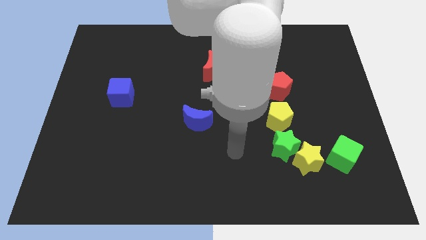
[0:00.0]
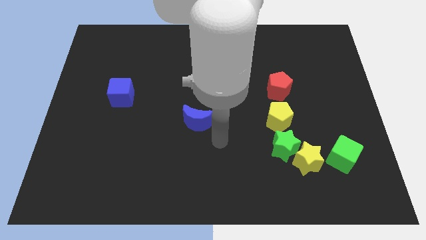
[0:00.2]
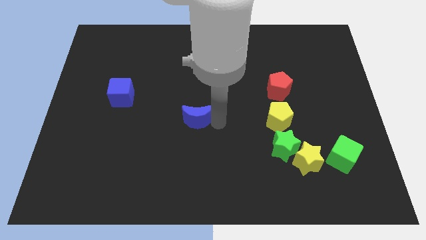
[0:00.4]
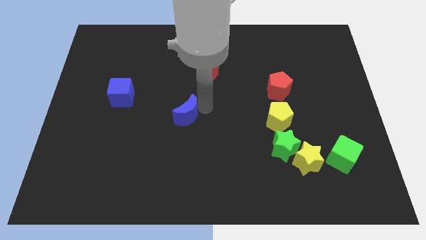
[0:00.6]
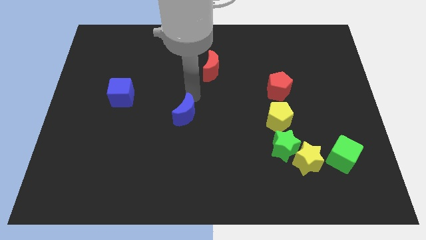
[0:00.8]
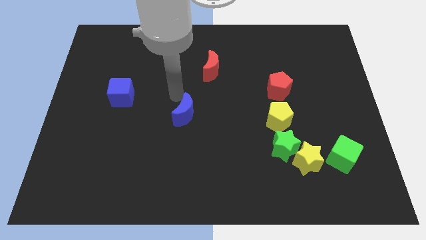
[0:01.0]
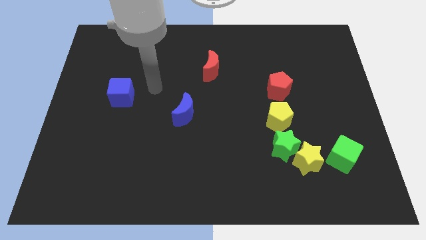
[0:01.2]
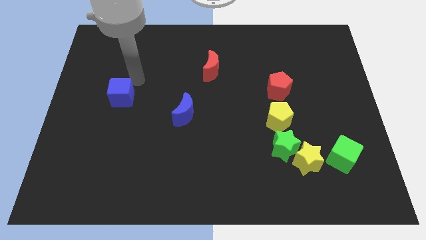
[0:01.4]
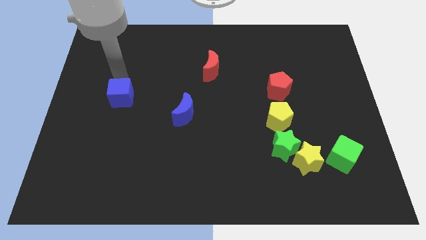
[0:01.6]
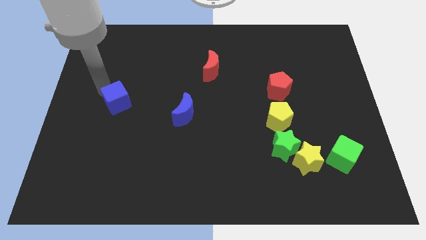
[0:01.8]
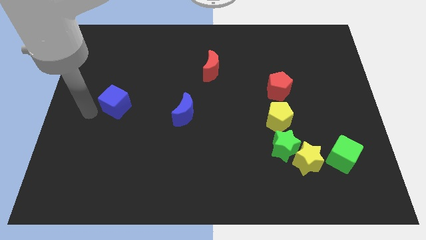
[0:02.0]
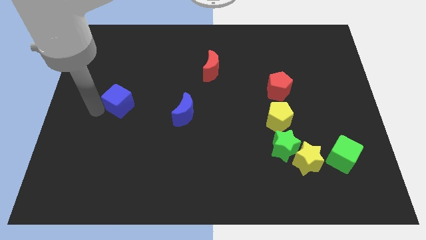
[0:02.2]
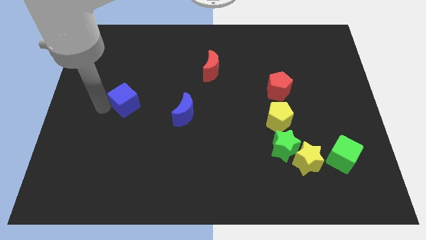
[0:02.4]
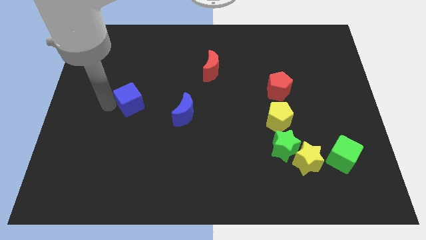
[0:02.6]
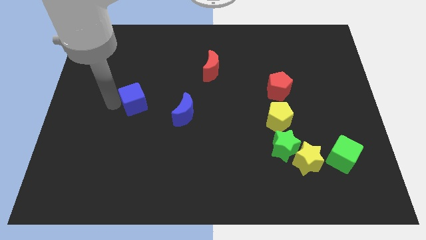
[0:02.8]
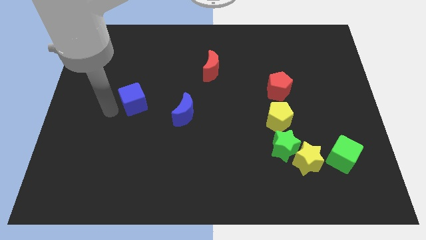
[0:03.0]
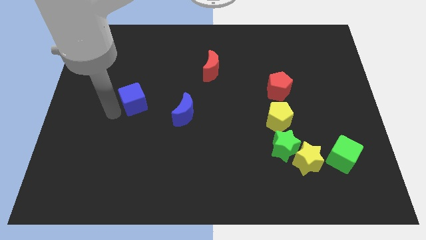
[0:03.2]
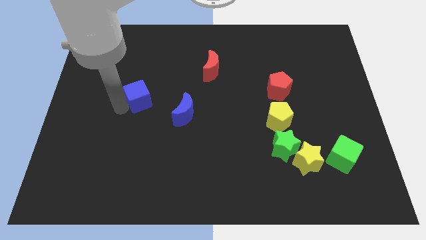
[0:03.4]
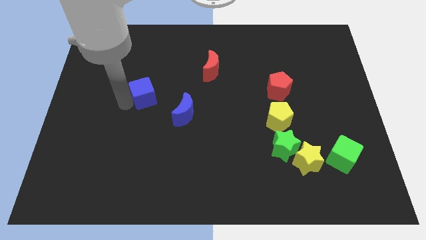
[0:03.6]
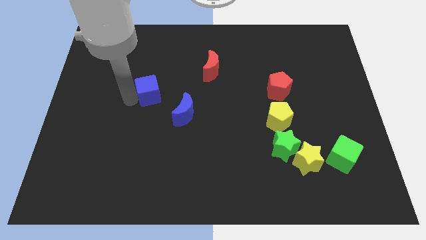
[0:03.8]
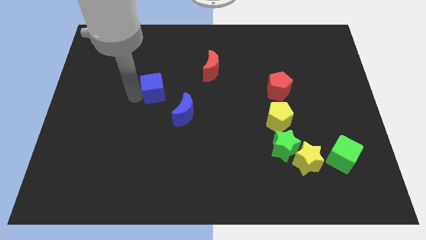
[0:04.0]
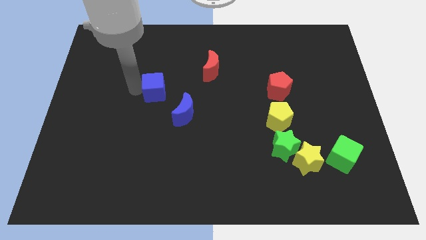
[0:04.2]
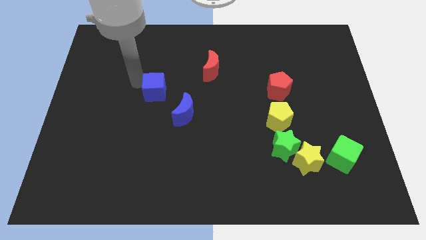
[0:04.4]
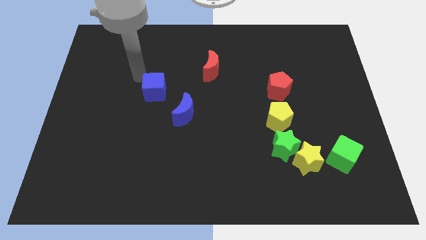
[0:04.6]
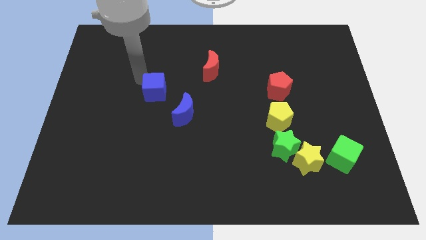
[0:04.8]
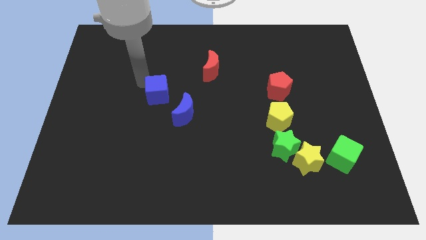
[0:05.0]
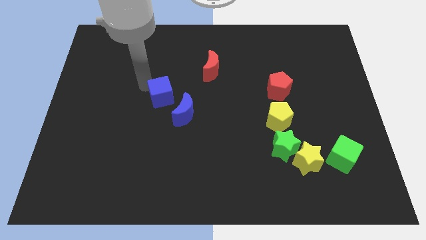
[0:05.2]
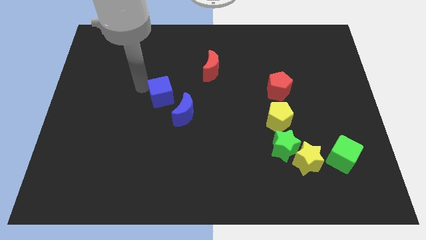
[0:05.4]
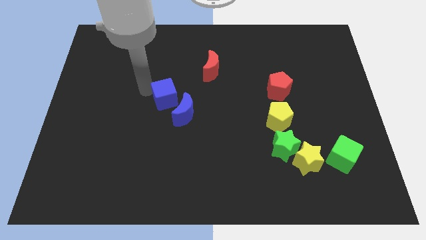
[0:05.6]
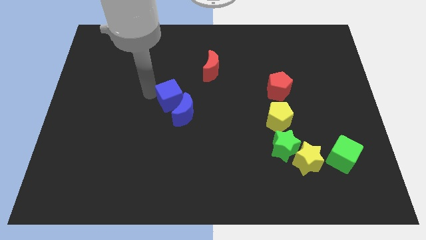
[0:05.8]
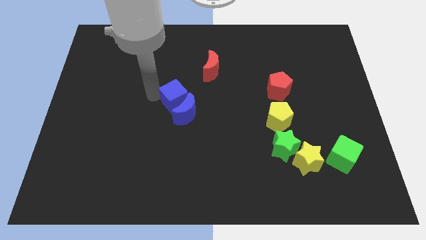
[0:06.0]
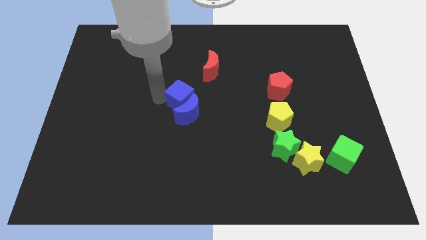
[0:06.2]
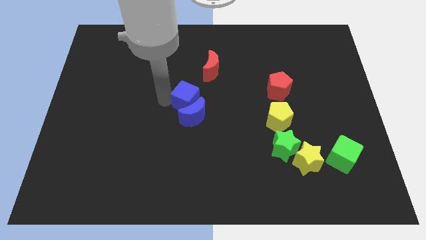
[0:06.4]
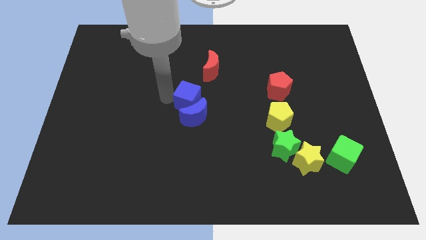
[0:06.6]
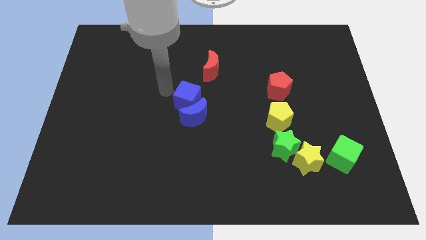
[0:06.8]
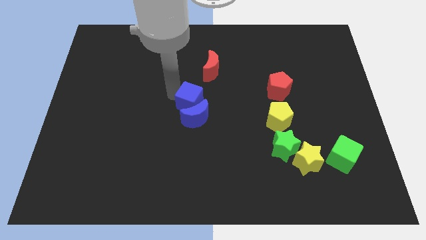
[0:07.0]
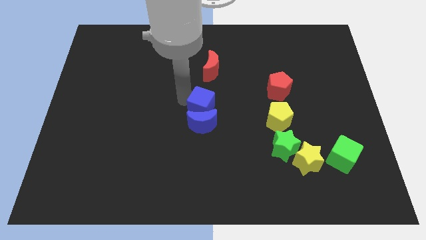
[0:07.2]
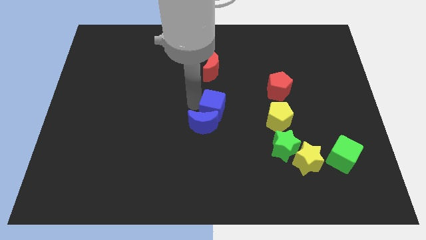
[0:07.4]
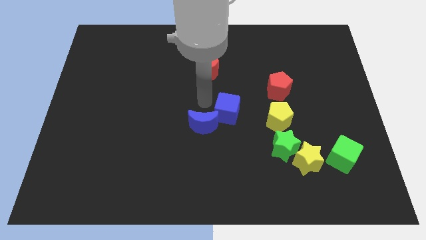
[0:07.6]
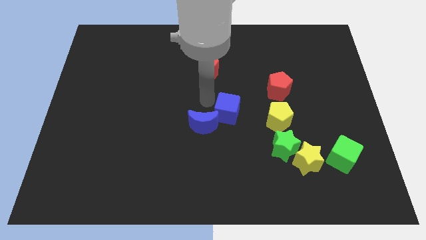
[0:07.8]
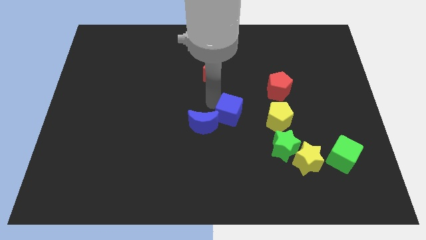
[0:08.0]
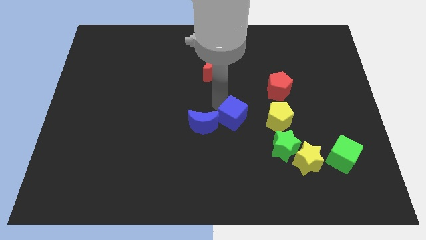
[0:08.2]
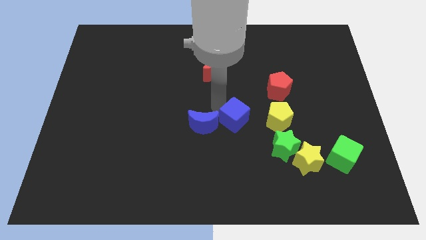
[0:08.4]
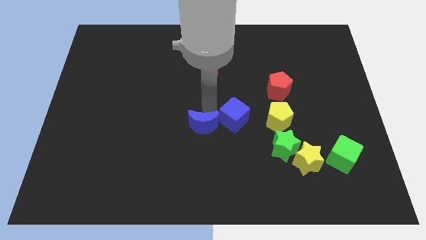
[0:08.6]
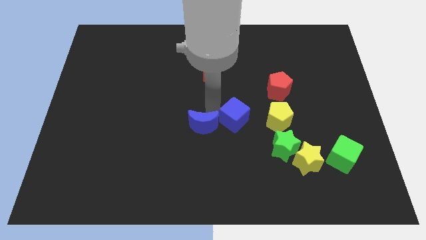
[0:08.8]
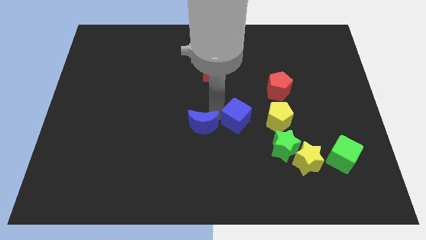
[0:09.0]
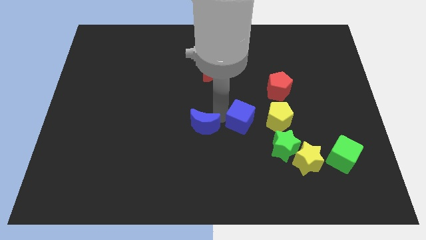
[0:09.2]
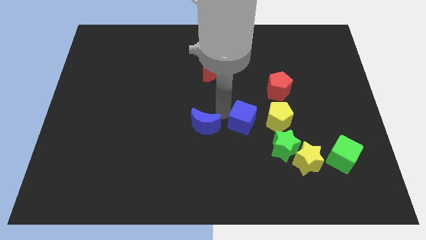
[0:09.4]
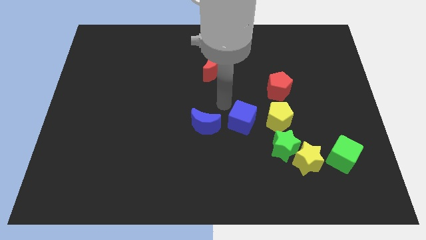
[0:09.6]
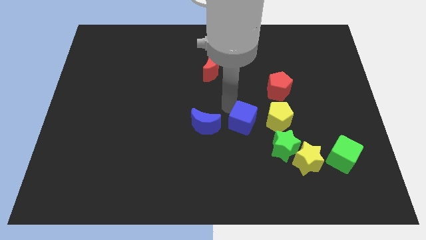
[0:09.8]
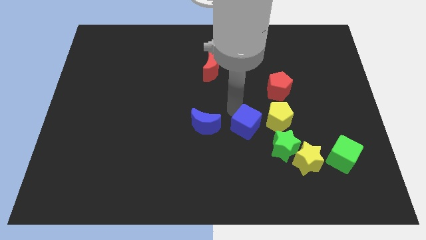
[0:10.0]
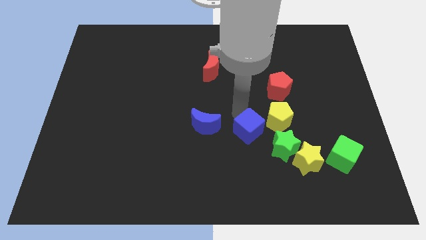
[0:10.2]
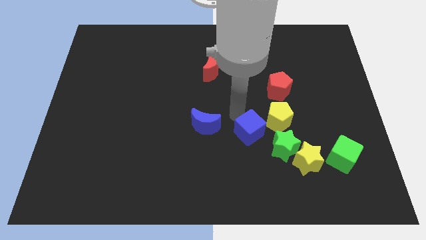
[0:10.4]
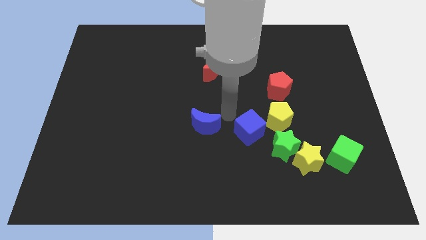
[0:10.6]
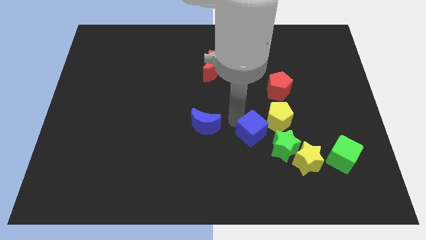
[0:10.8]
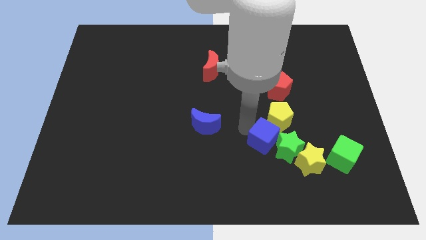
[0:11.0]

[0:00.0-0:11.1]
move the blue cube towards the green star

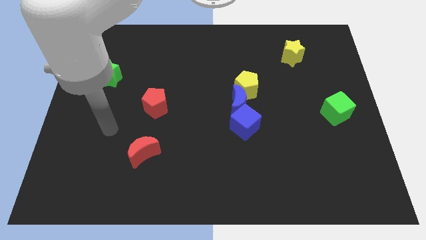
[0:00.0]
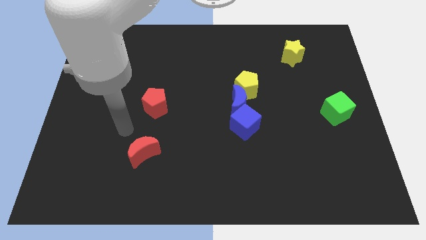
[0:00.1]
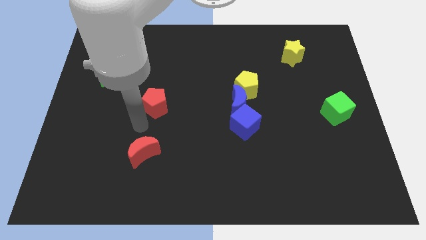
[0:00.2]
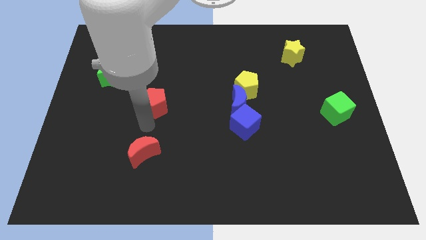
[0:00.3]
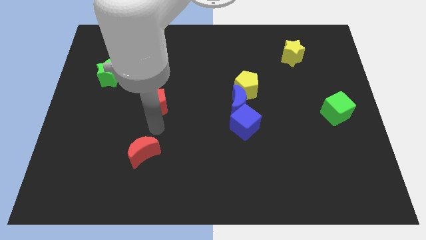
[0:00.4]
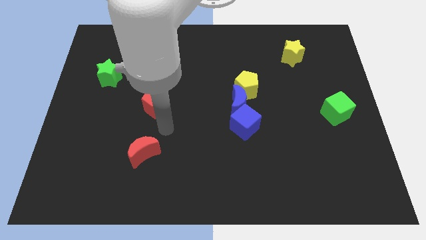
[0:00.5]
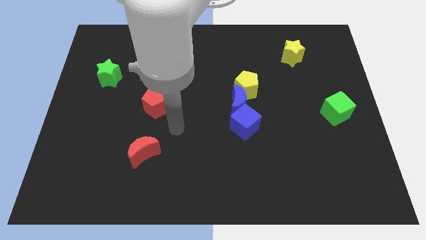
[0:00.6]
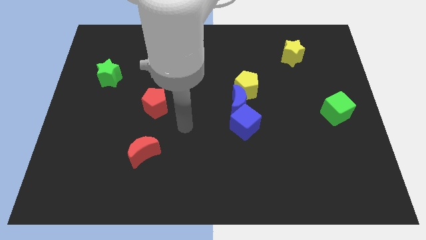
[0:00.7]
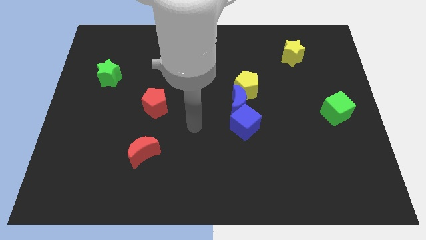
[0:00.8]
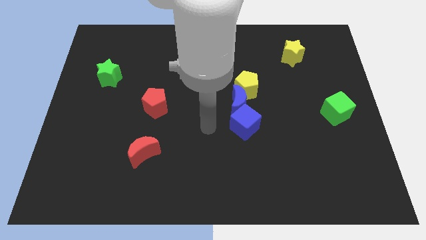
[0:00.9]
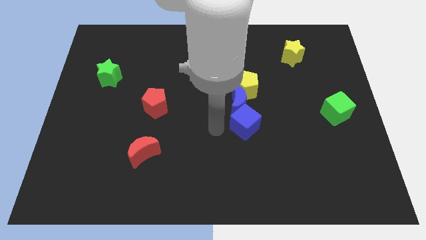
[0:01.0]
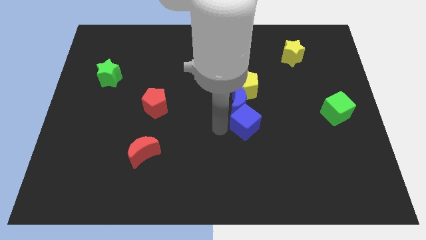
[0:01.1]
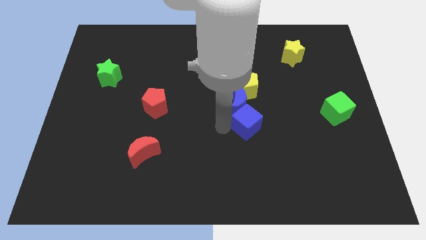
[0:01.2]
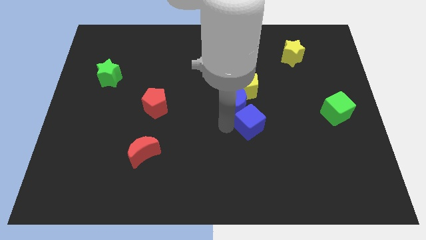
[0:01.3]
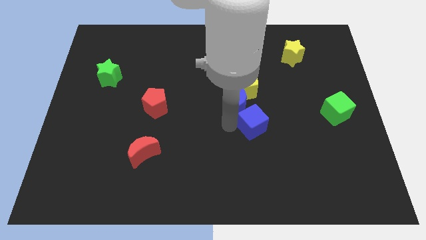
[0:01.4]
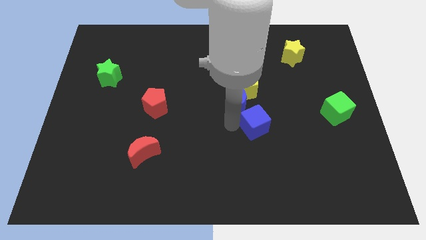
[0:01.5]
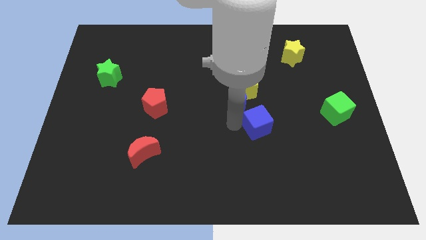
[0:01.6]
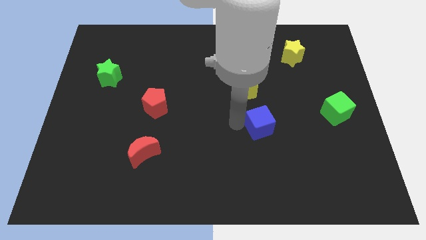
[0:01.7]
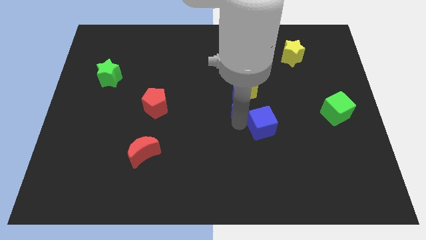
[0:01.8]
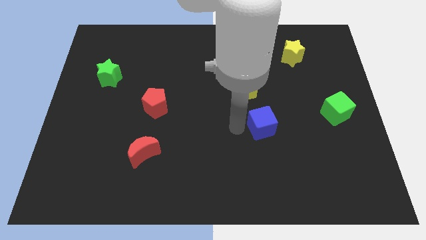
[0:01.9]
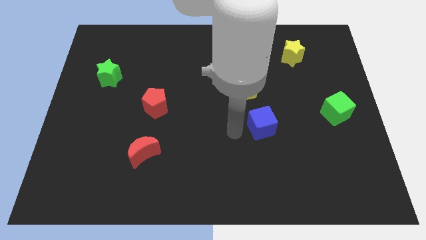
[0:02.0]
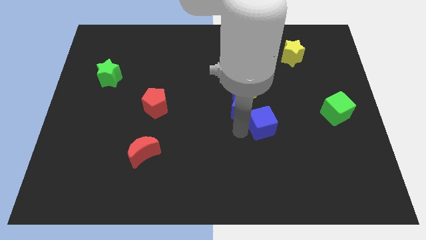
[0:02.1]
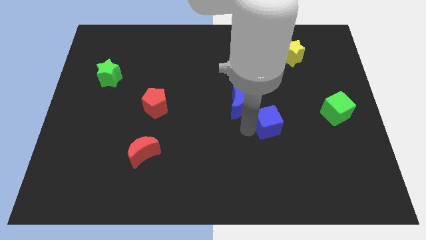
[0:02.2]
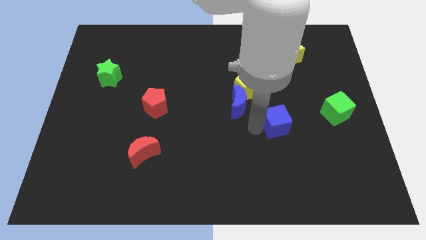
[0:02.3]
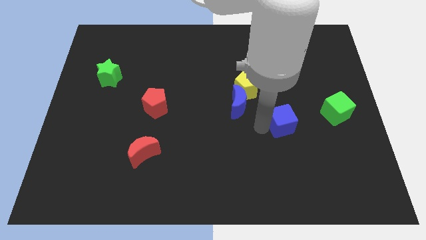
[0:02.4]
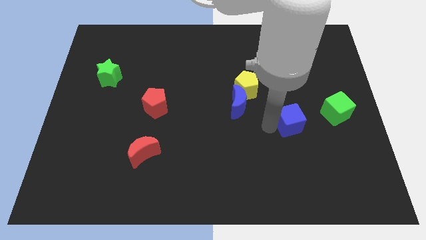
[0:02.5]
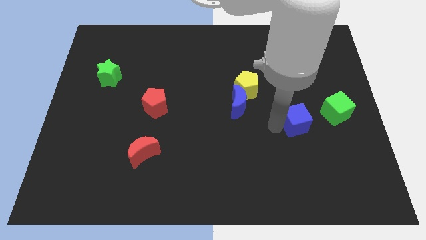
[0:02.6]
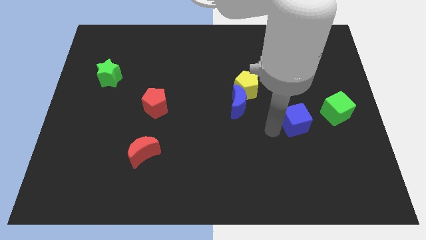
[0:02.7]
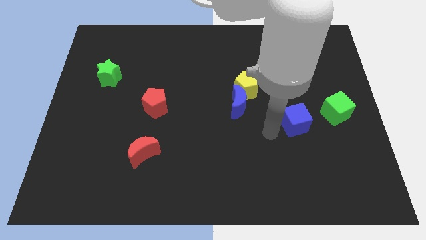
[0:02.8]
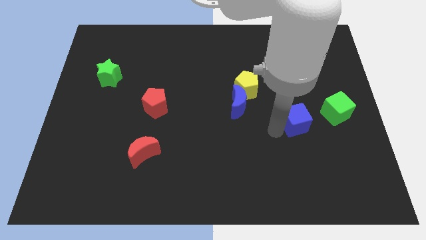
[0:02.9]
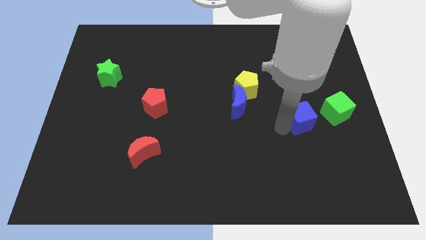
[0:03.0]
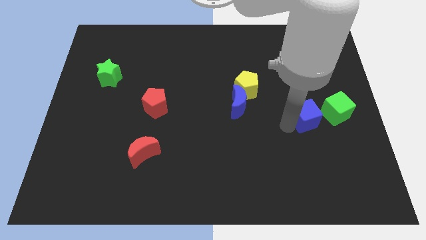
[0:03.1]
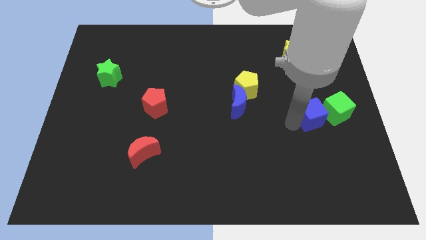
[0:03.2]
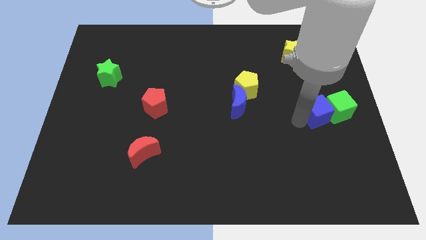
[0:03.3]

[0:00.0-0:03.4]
slide the blue cube towards the green cube
